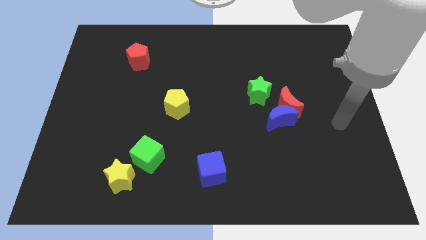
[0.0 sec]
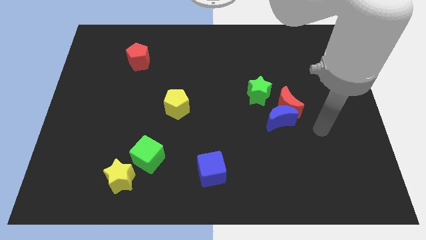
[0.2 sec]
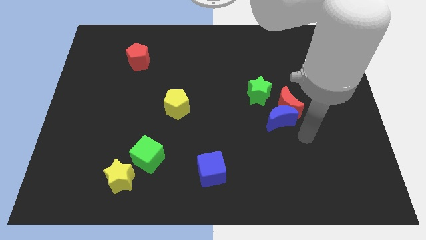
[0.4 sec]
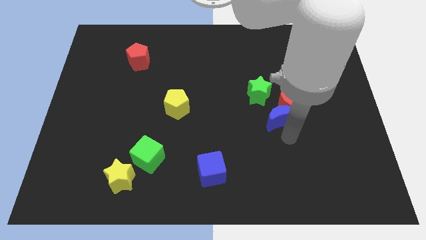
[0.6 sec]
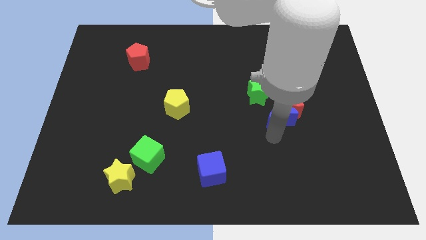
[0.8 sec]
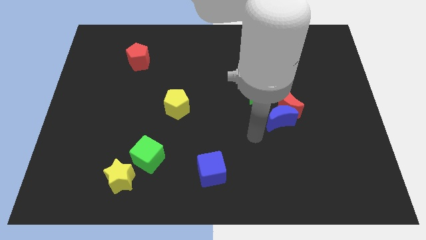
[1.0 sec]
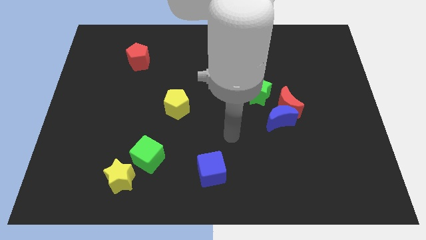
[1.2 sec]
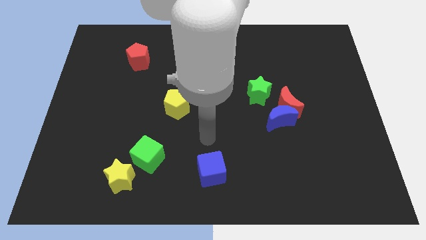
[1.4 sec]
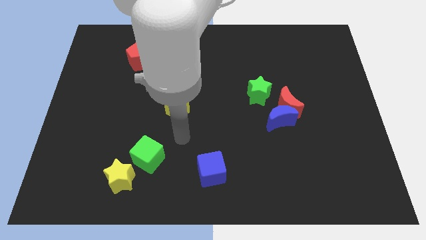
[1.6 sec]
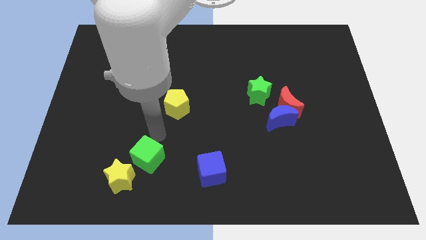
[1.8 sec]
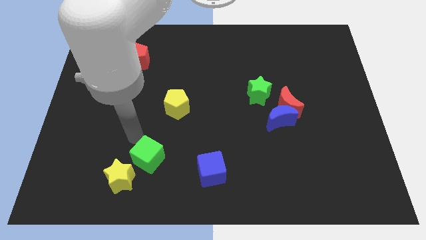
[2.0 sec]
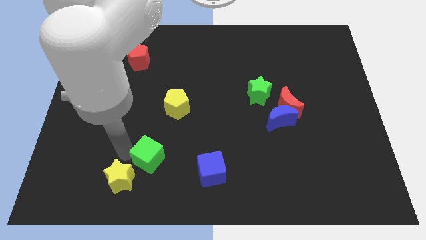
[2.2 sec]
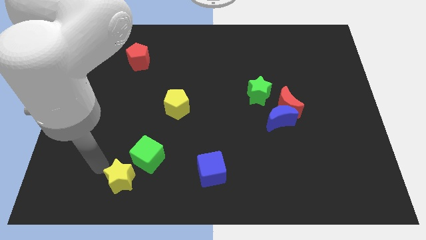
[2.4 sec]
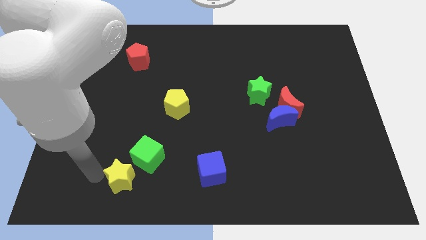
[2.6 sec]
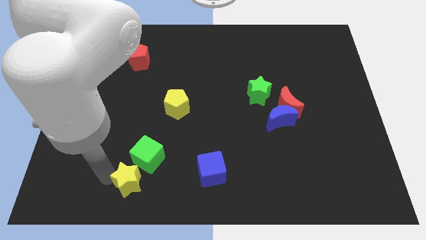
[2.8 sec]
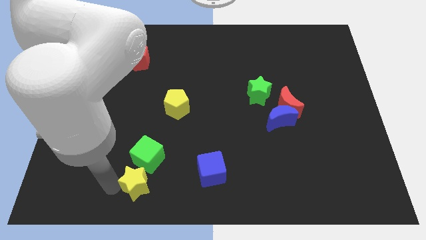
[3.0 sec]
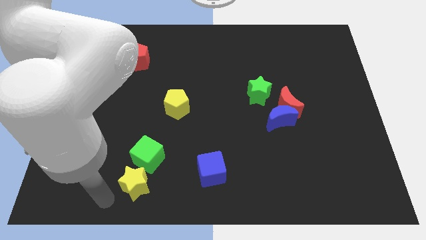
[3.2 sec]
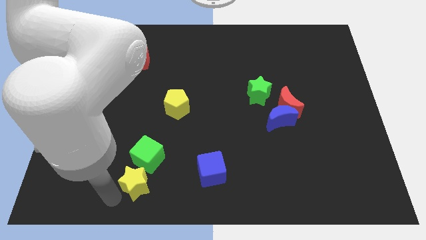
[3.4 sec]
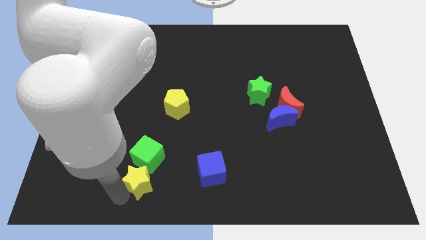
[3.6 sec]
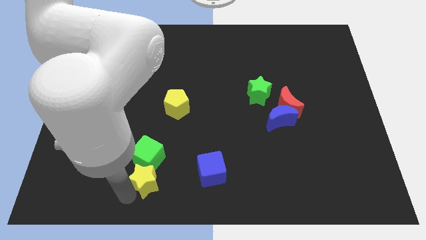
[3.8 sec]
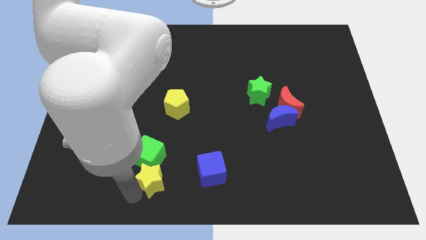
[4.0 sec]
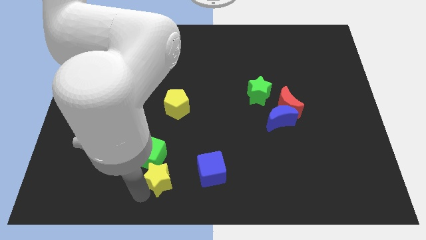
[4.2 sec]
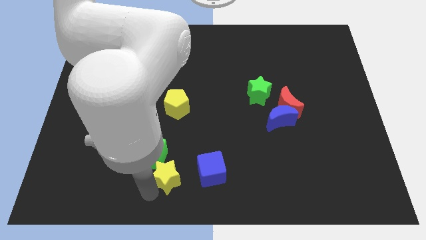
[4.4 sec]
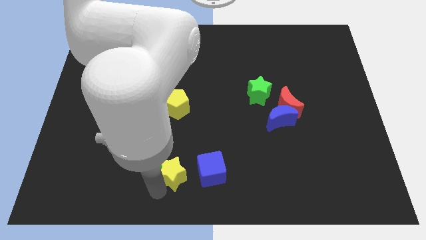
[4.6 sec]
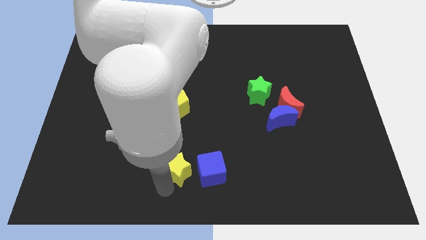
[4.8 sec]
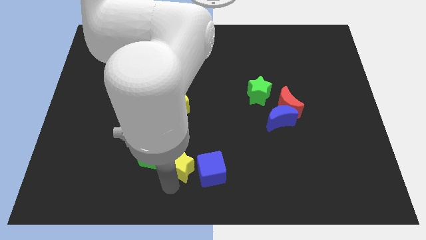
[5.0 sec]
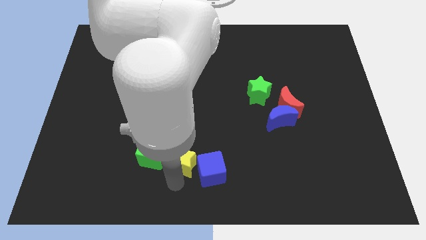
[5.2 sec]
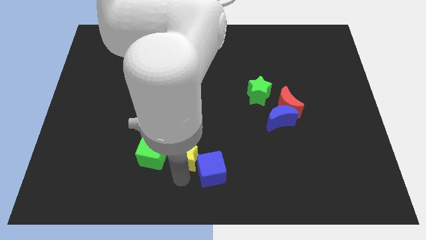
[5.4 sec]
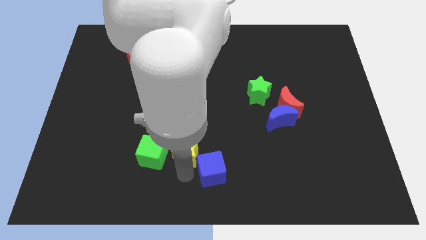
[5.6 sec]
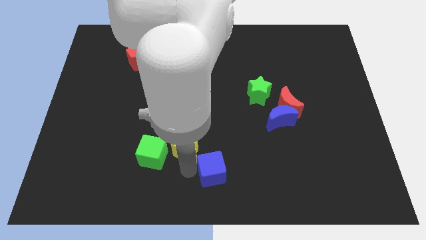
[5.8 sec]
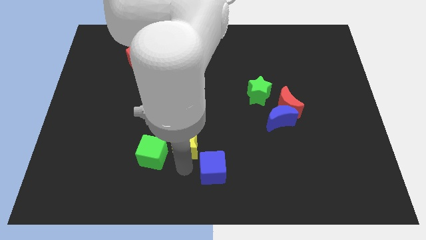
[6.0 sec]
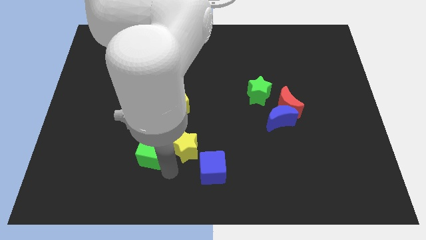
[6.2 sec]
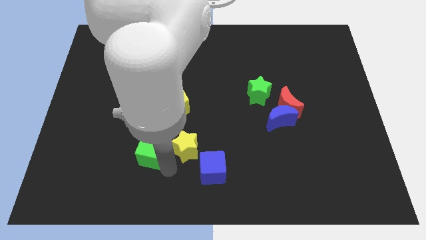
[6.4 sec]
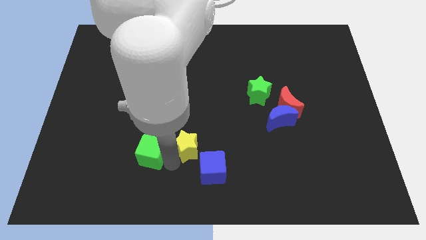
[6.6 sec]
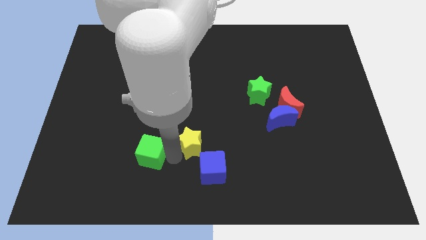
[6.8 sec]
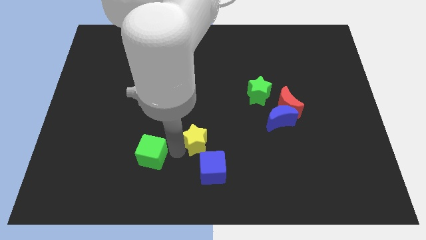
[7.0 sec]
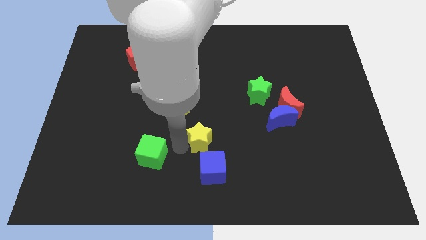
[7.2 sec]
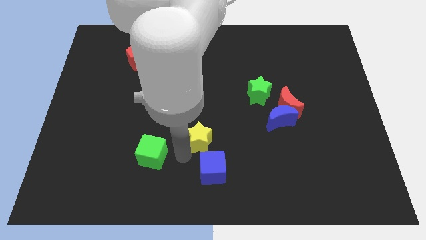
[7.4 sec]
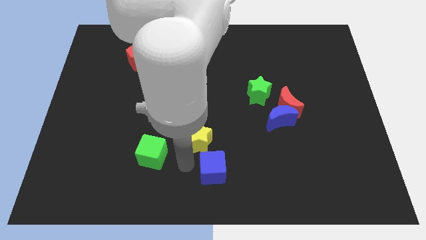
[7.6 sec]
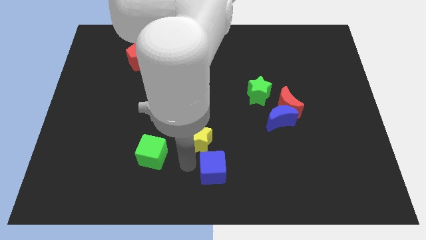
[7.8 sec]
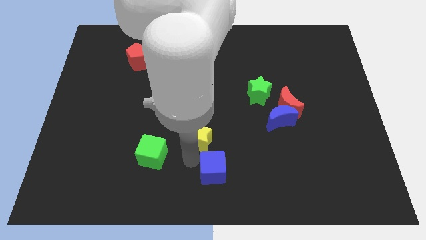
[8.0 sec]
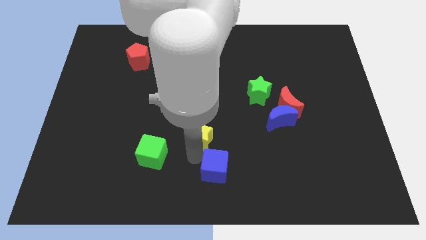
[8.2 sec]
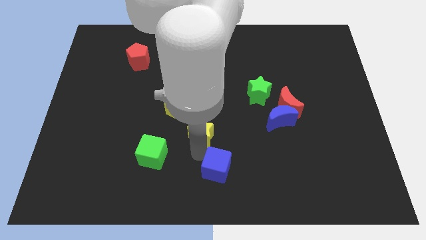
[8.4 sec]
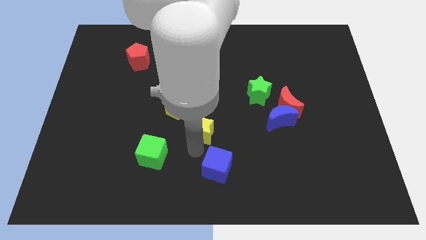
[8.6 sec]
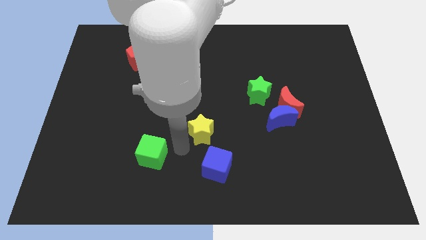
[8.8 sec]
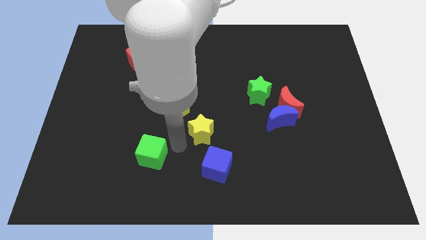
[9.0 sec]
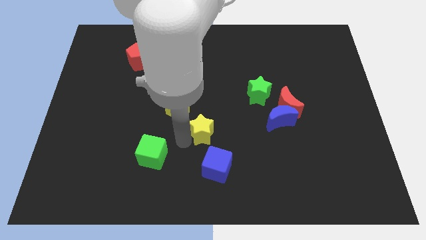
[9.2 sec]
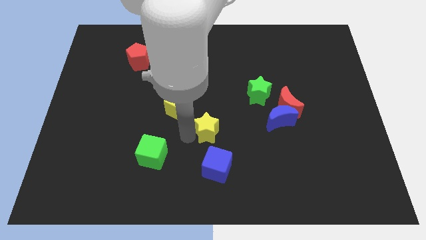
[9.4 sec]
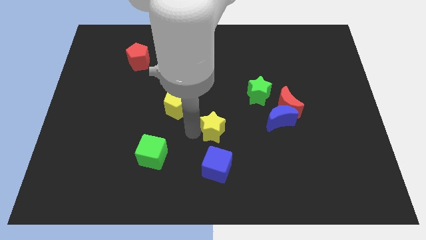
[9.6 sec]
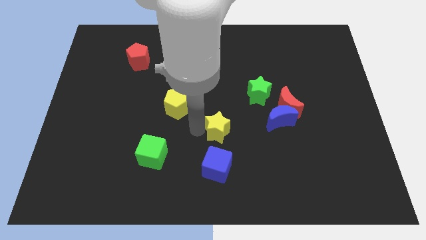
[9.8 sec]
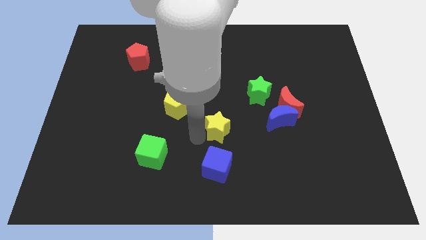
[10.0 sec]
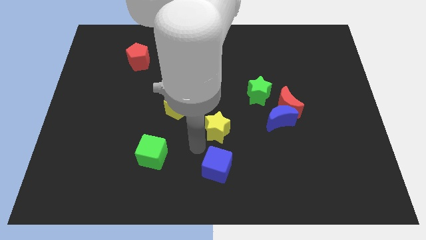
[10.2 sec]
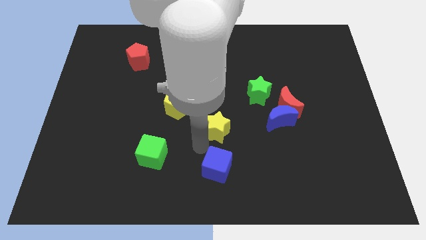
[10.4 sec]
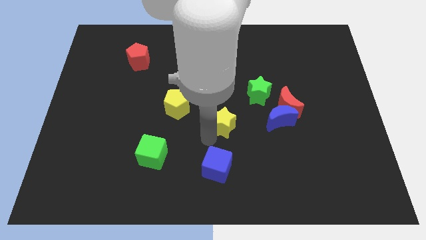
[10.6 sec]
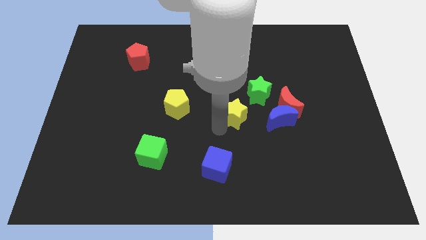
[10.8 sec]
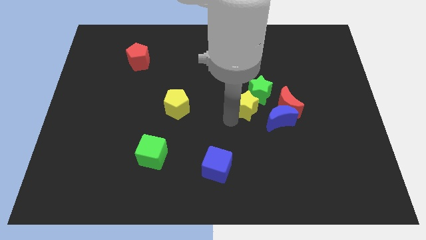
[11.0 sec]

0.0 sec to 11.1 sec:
slide the yellow star close to the green star

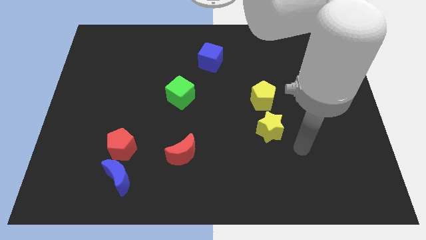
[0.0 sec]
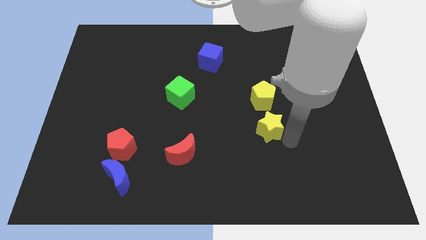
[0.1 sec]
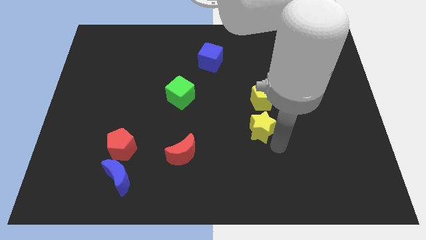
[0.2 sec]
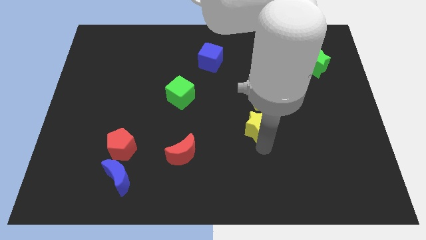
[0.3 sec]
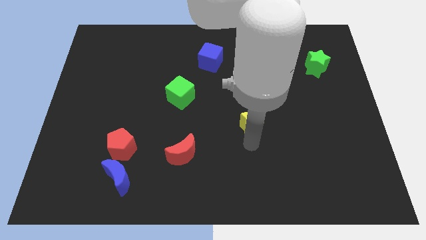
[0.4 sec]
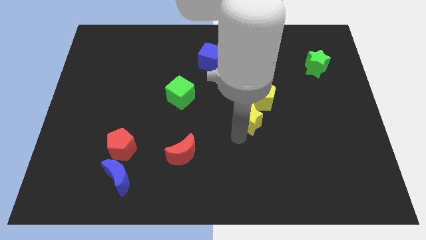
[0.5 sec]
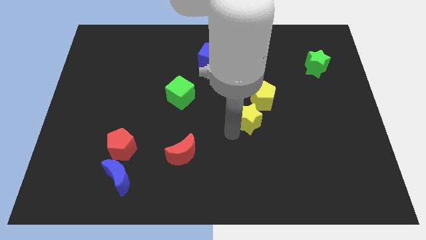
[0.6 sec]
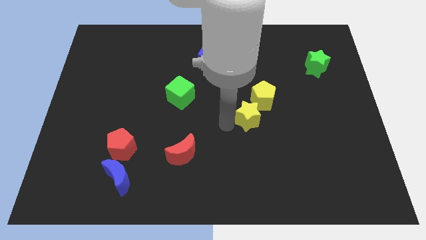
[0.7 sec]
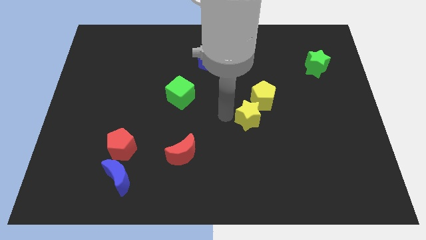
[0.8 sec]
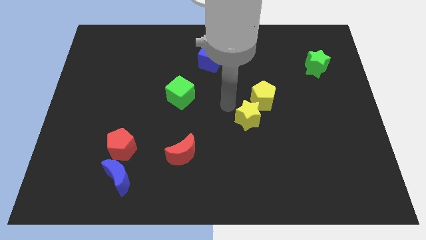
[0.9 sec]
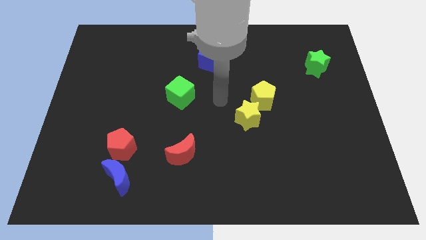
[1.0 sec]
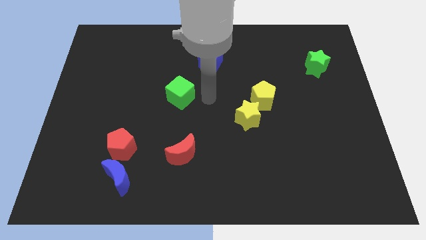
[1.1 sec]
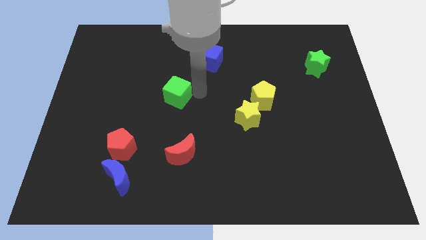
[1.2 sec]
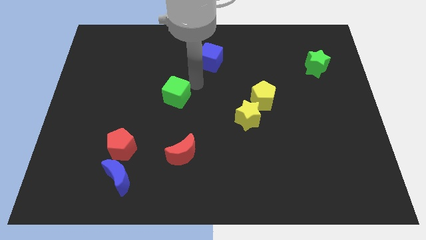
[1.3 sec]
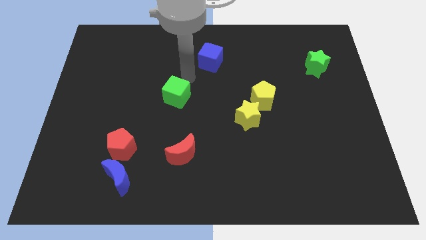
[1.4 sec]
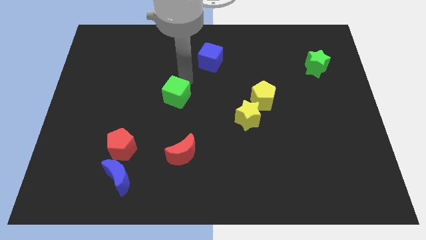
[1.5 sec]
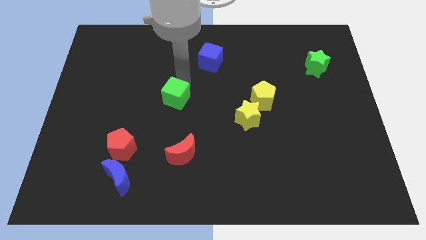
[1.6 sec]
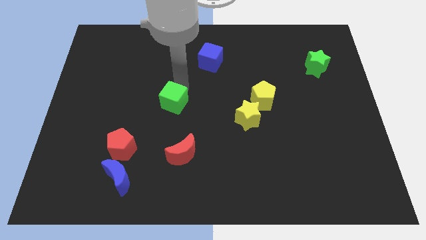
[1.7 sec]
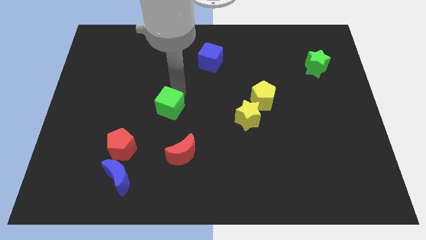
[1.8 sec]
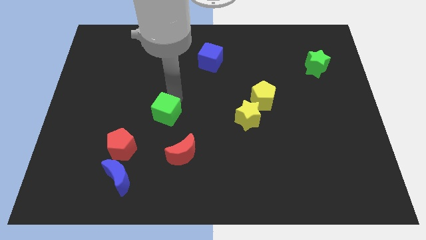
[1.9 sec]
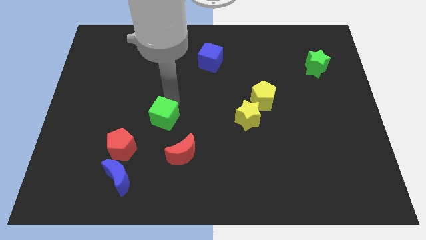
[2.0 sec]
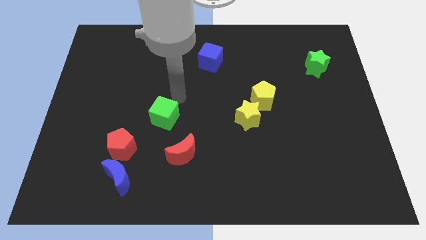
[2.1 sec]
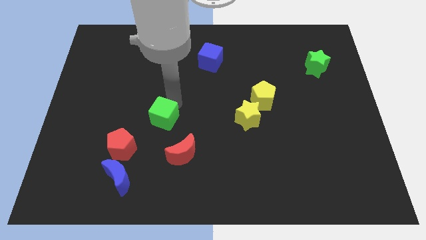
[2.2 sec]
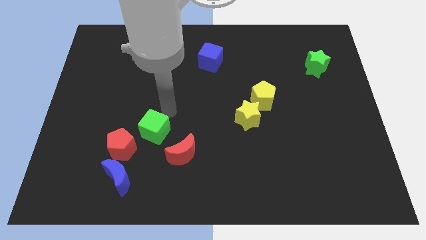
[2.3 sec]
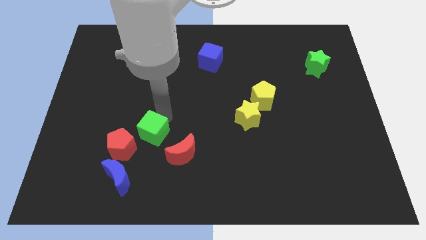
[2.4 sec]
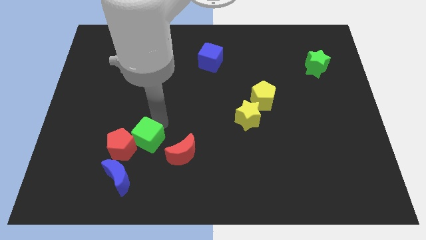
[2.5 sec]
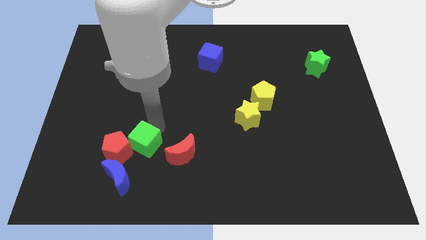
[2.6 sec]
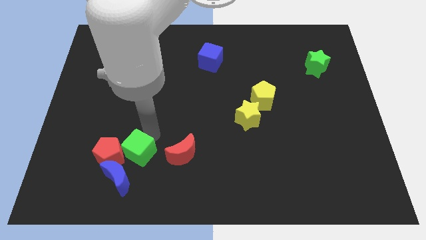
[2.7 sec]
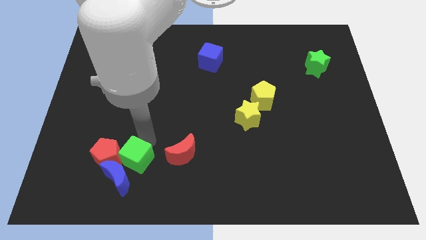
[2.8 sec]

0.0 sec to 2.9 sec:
push the green cube close to the blue moon
